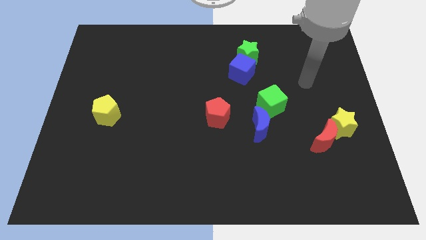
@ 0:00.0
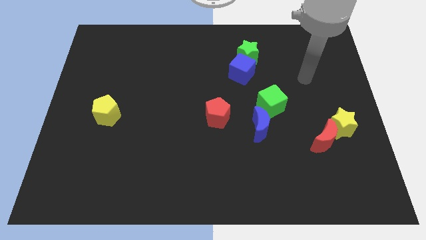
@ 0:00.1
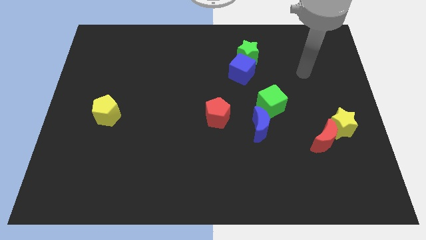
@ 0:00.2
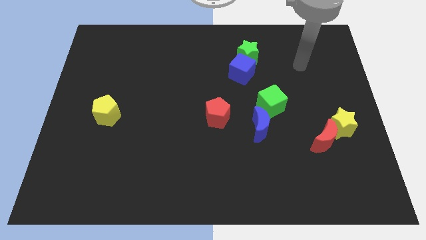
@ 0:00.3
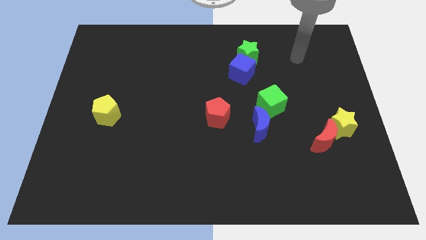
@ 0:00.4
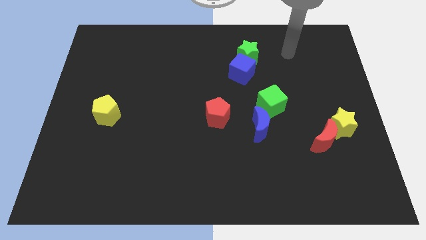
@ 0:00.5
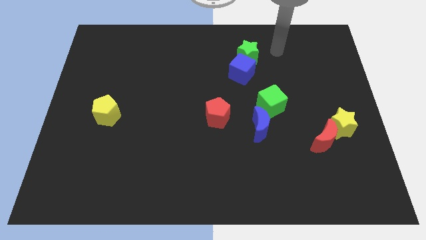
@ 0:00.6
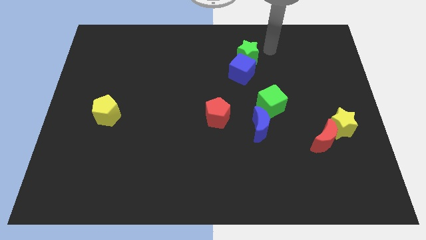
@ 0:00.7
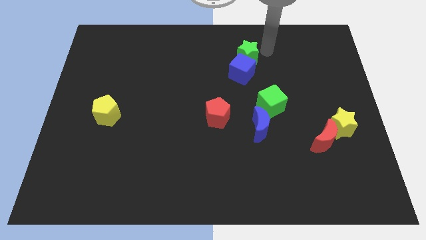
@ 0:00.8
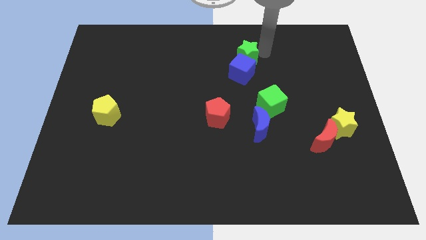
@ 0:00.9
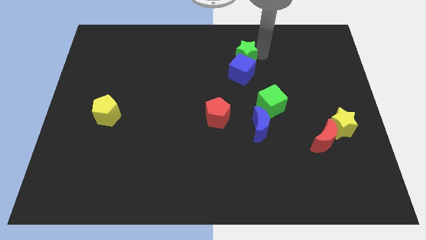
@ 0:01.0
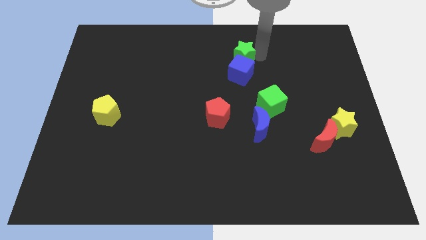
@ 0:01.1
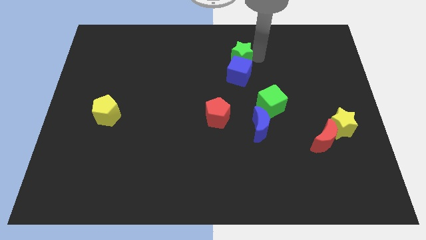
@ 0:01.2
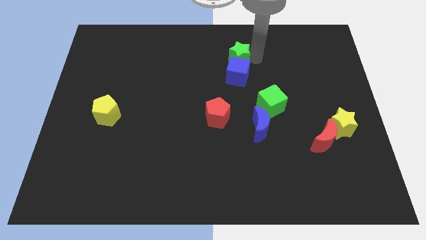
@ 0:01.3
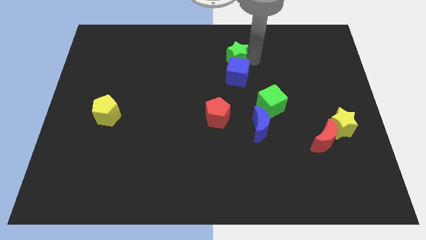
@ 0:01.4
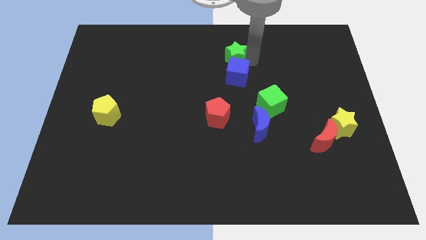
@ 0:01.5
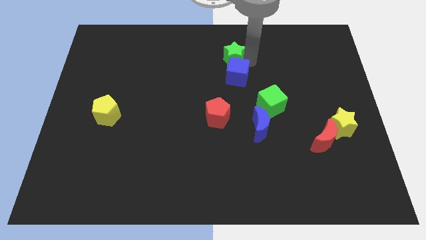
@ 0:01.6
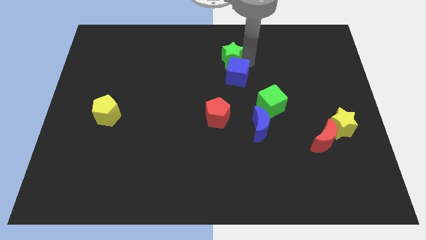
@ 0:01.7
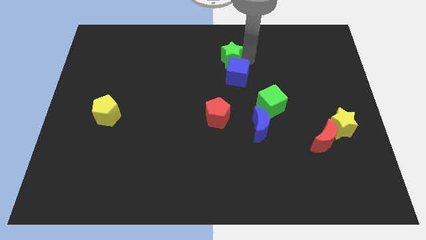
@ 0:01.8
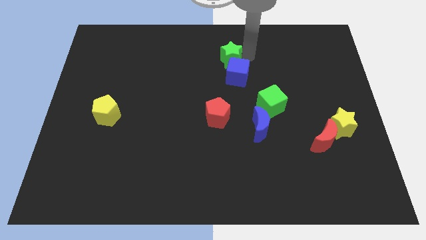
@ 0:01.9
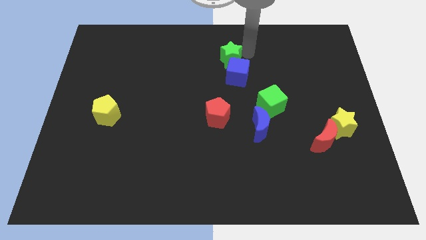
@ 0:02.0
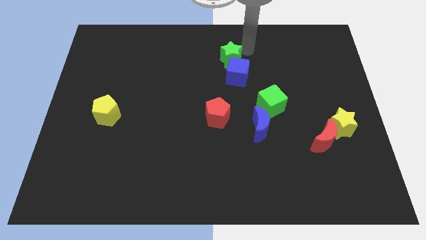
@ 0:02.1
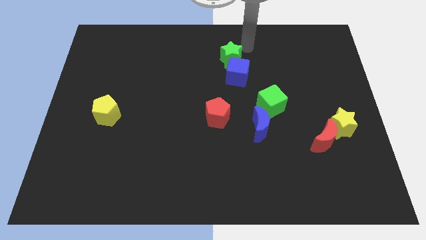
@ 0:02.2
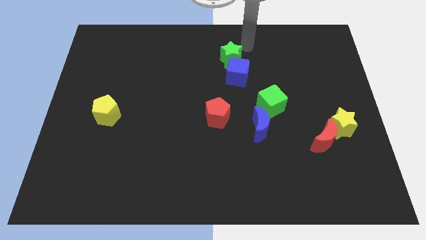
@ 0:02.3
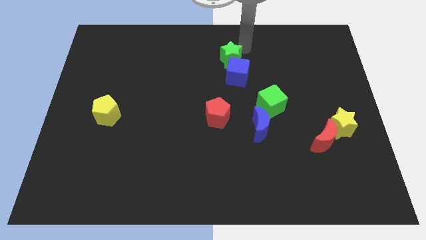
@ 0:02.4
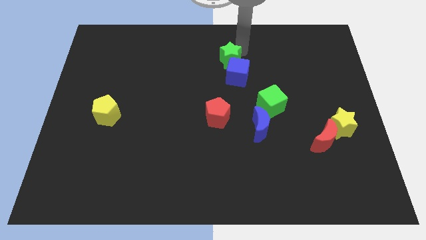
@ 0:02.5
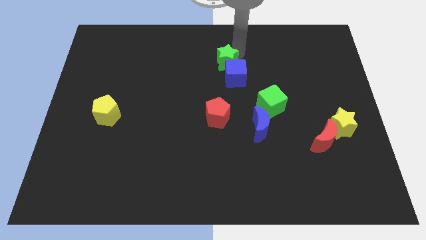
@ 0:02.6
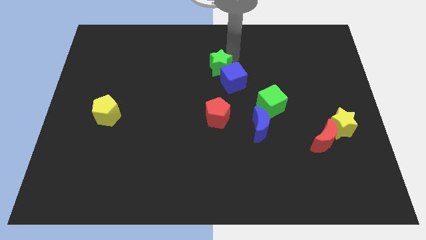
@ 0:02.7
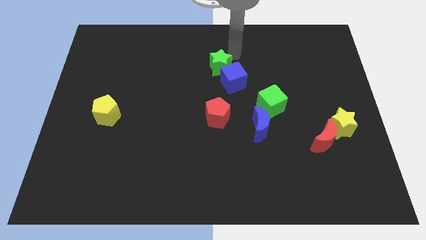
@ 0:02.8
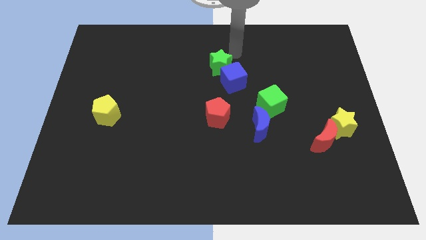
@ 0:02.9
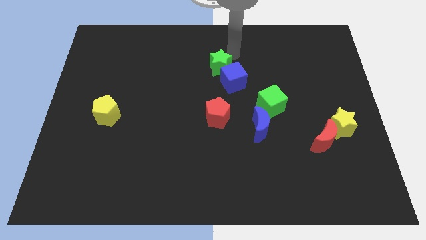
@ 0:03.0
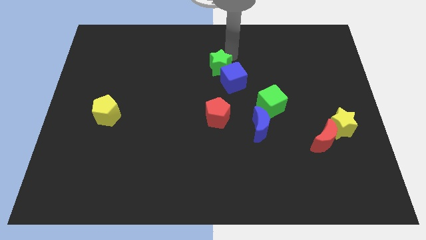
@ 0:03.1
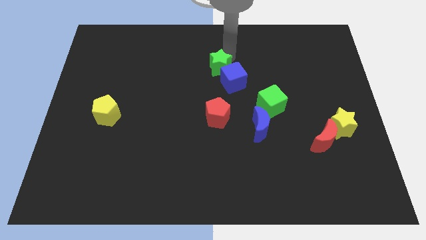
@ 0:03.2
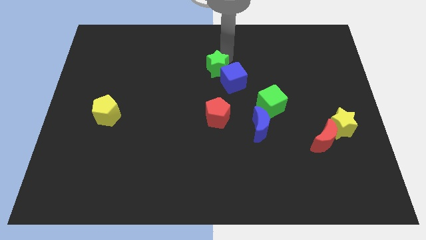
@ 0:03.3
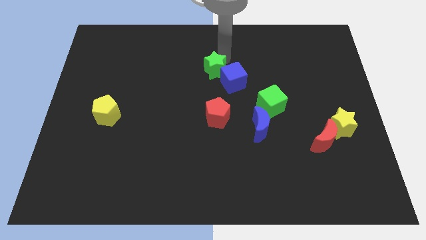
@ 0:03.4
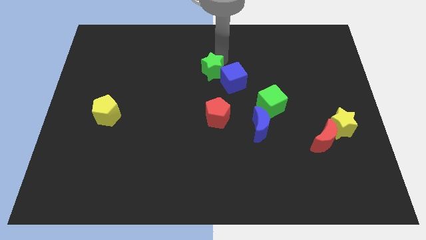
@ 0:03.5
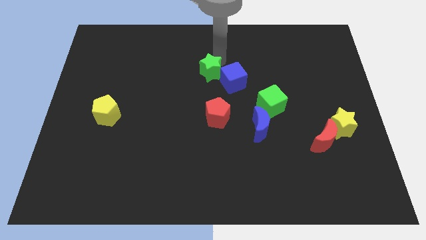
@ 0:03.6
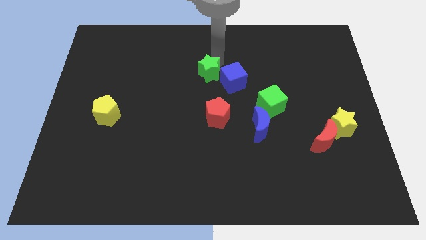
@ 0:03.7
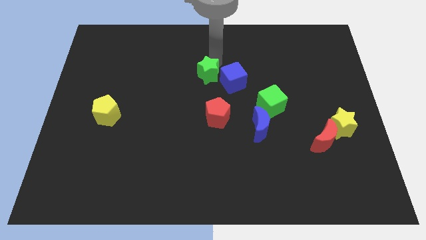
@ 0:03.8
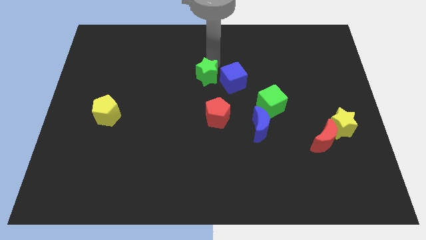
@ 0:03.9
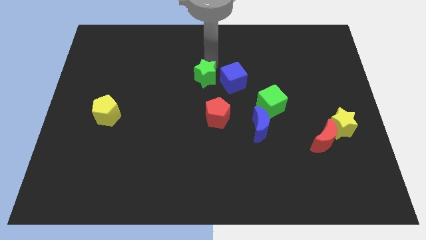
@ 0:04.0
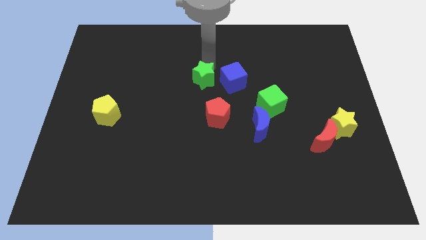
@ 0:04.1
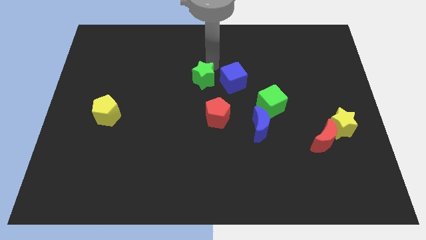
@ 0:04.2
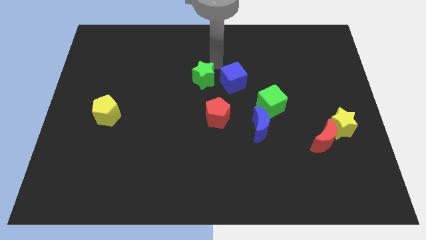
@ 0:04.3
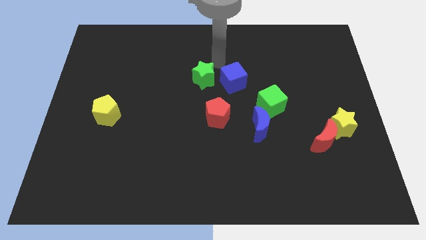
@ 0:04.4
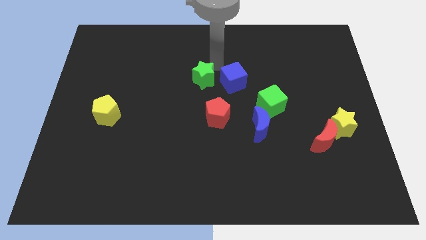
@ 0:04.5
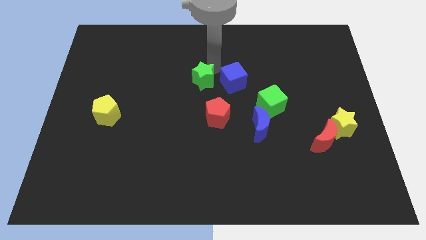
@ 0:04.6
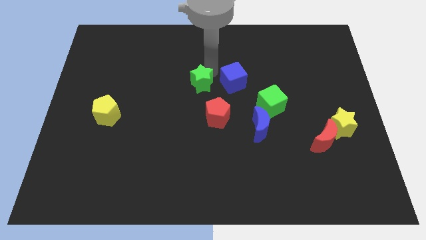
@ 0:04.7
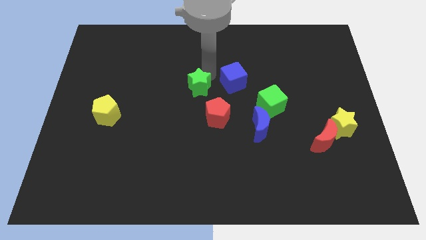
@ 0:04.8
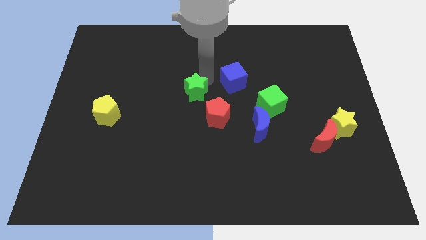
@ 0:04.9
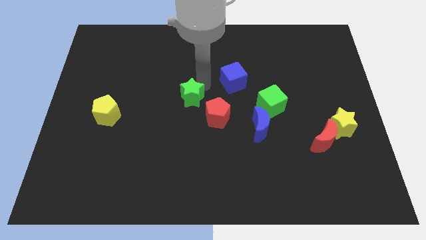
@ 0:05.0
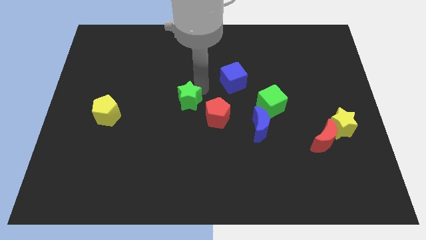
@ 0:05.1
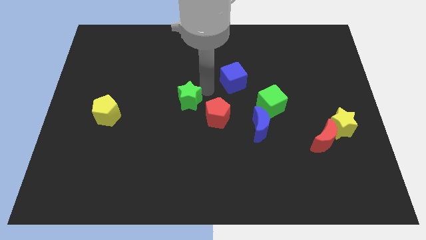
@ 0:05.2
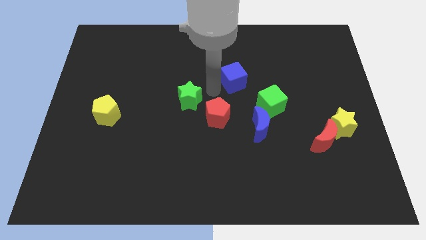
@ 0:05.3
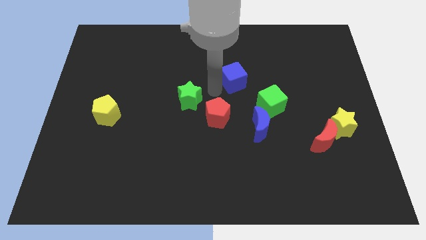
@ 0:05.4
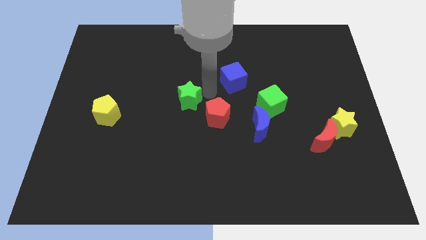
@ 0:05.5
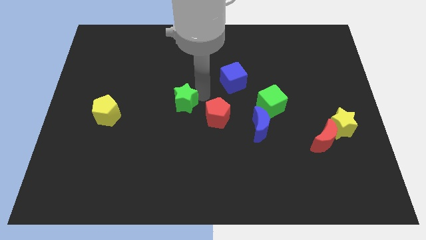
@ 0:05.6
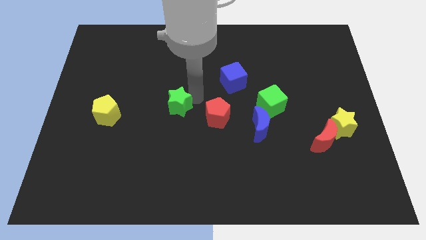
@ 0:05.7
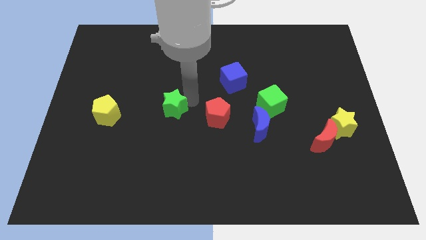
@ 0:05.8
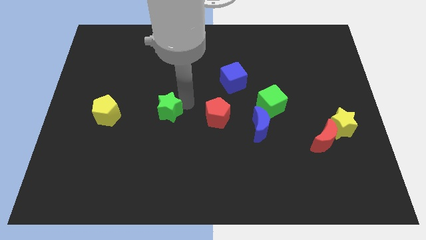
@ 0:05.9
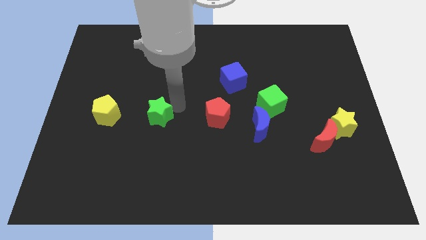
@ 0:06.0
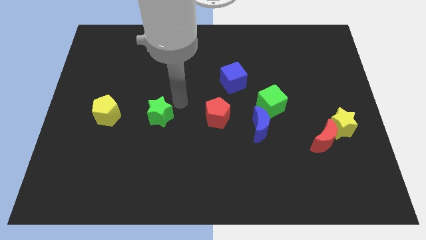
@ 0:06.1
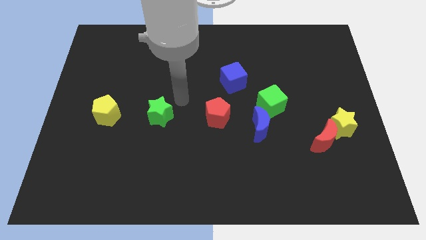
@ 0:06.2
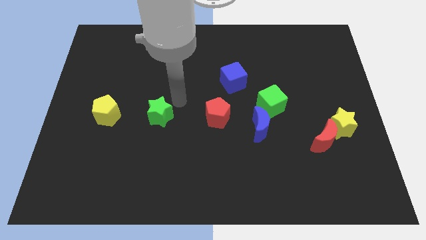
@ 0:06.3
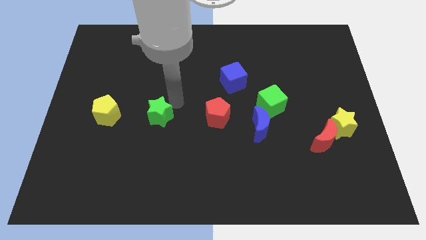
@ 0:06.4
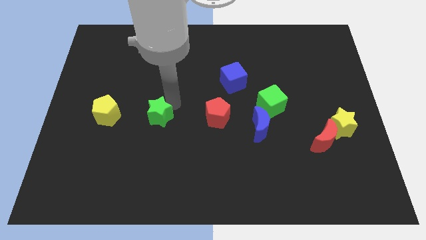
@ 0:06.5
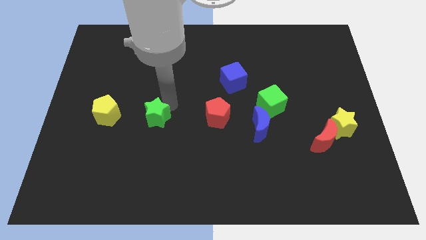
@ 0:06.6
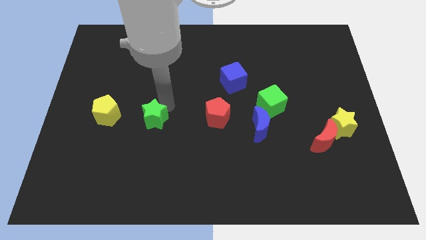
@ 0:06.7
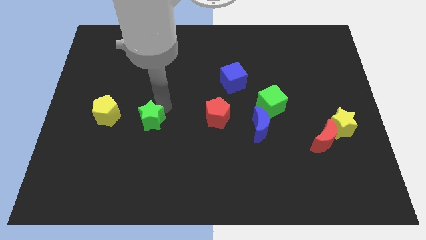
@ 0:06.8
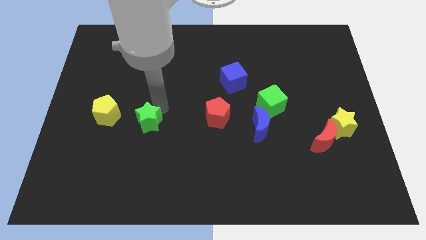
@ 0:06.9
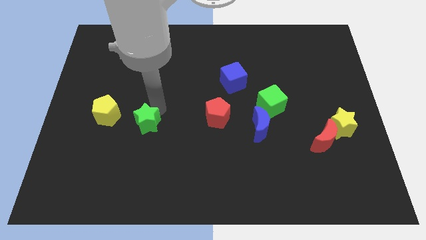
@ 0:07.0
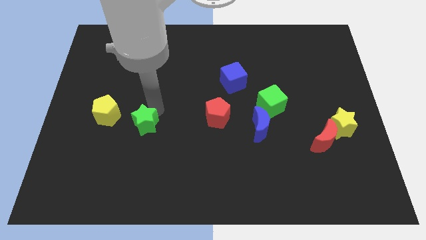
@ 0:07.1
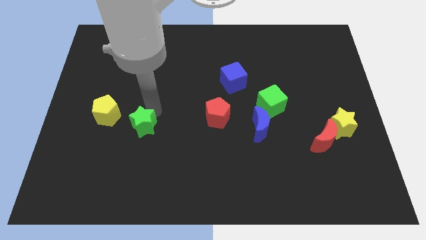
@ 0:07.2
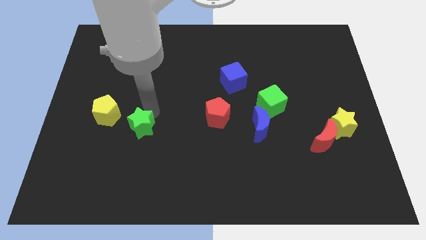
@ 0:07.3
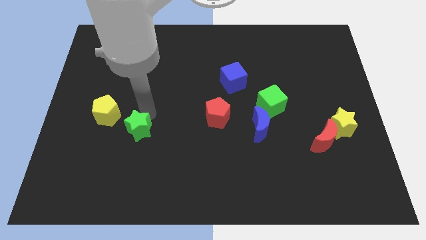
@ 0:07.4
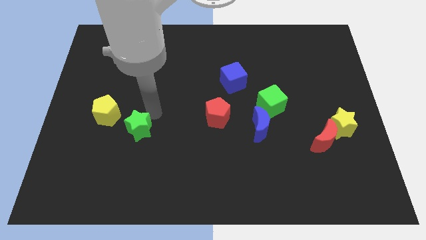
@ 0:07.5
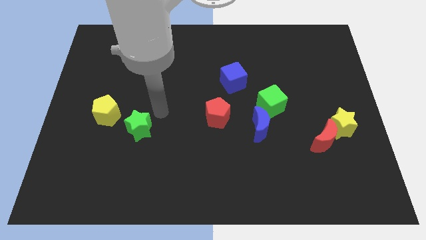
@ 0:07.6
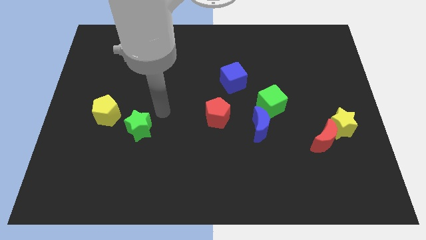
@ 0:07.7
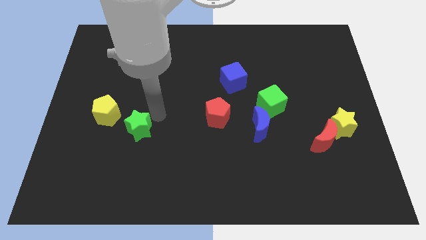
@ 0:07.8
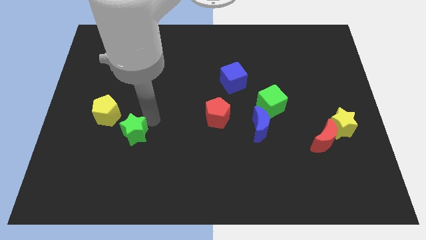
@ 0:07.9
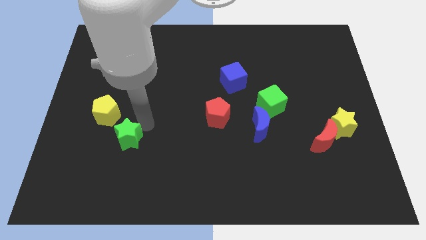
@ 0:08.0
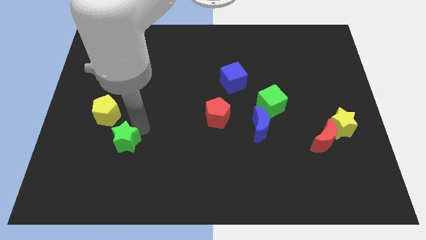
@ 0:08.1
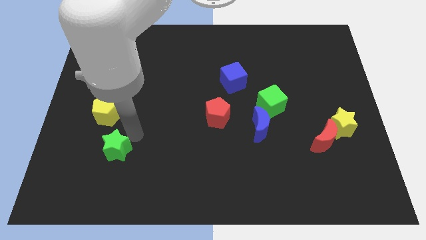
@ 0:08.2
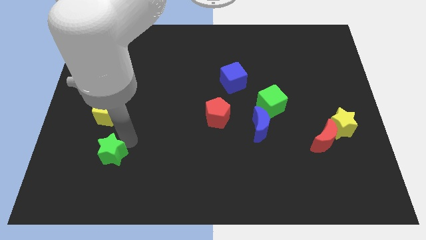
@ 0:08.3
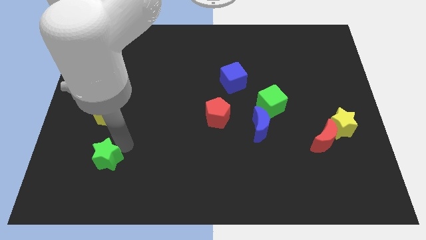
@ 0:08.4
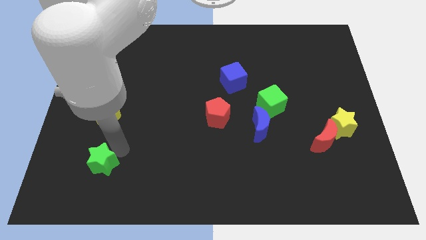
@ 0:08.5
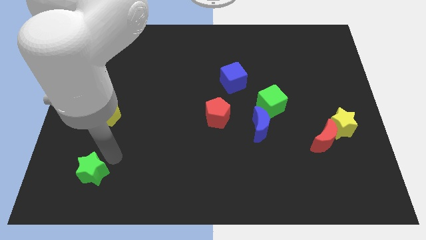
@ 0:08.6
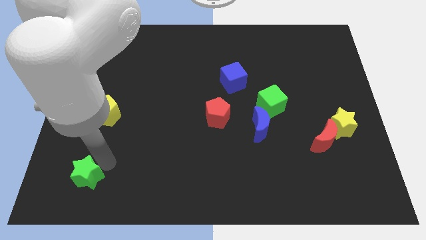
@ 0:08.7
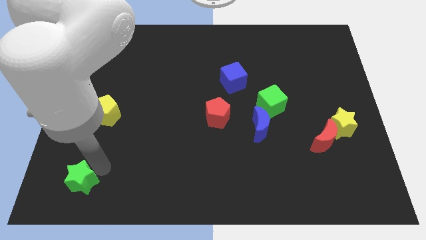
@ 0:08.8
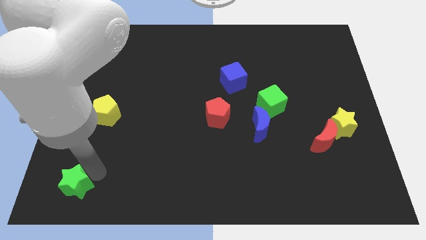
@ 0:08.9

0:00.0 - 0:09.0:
put the green star to the bottom left
